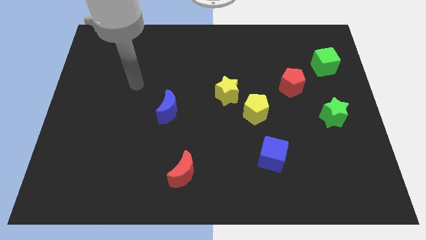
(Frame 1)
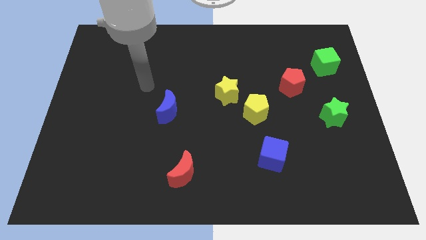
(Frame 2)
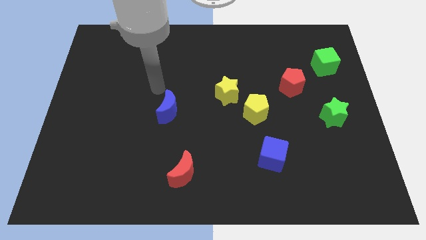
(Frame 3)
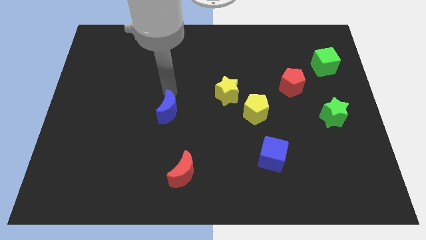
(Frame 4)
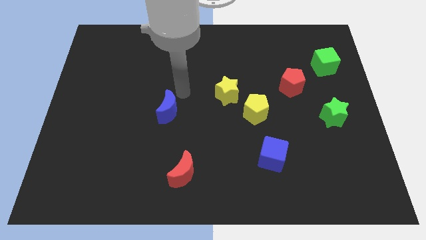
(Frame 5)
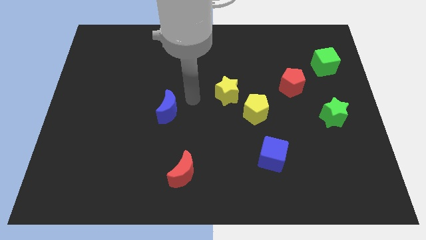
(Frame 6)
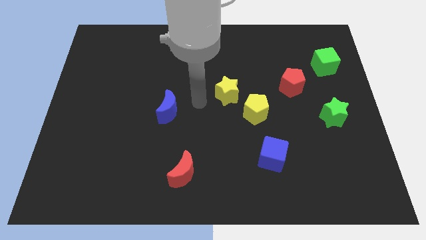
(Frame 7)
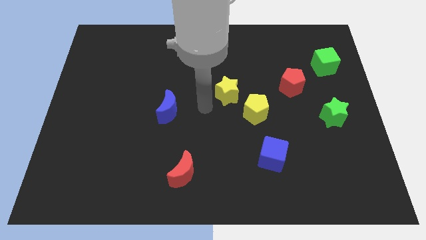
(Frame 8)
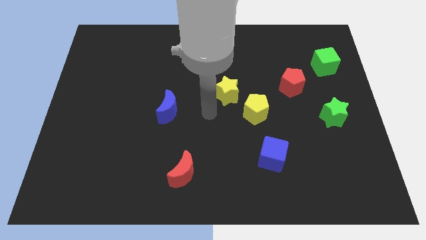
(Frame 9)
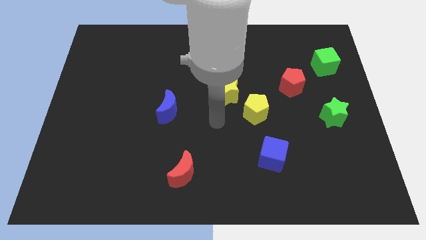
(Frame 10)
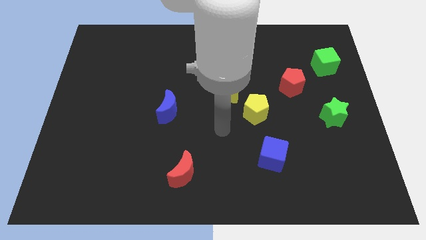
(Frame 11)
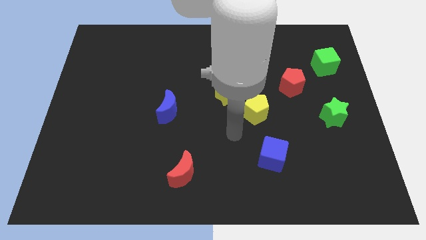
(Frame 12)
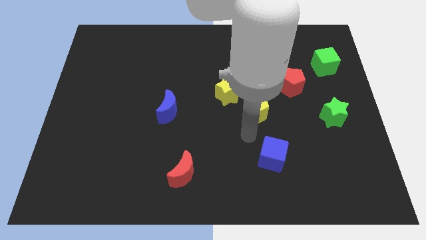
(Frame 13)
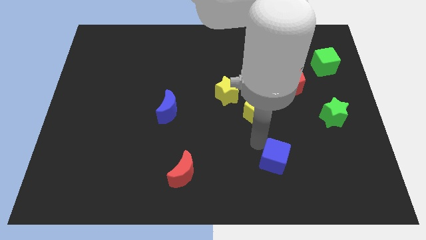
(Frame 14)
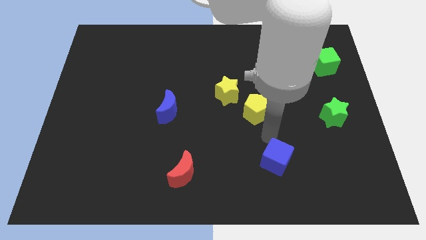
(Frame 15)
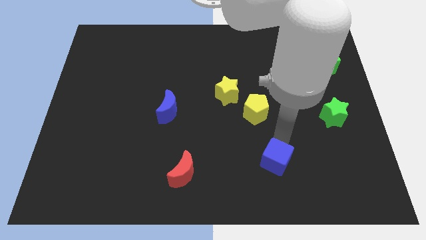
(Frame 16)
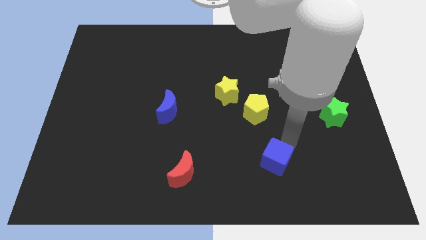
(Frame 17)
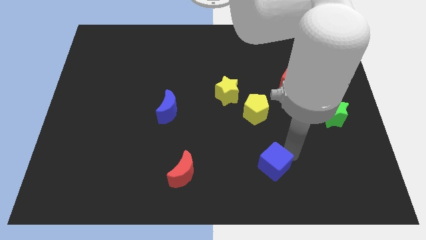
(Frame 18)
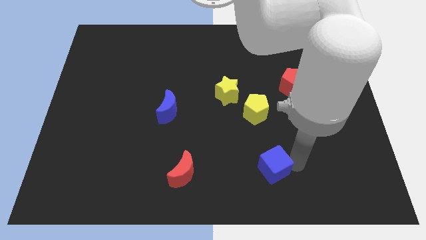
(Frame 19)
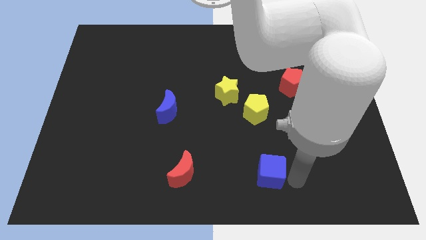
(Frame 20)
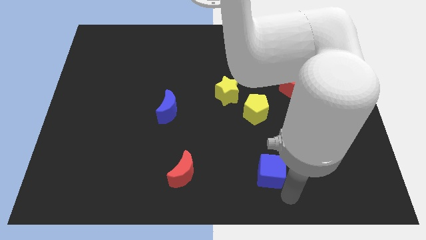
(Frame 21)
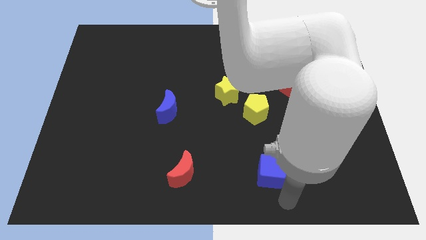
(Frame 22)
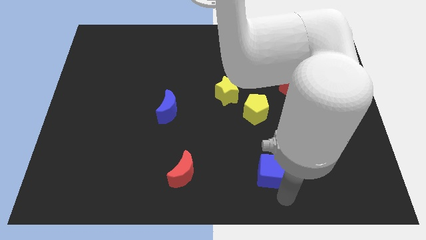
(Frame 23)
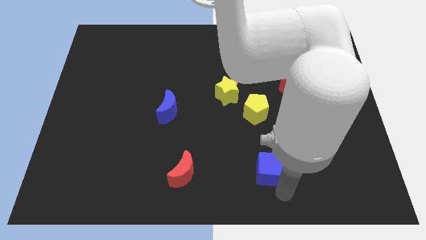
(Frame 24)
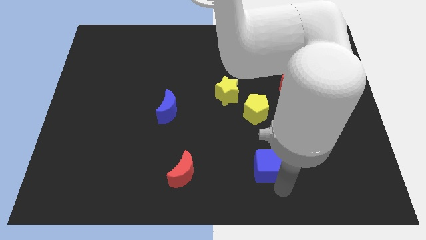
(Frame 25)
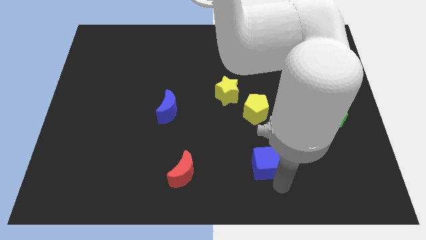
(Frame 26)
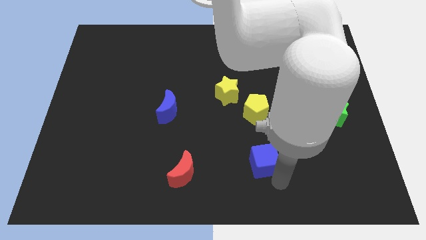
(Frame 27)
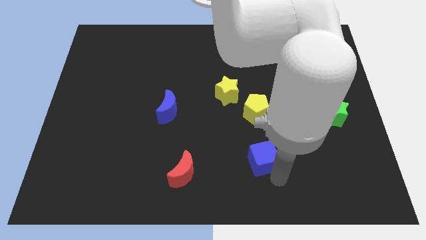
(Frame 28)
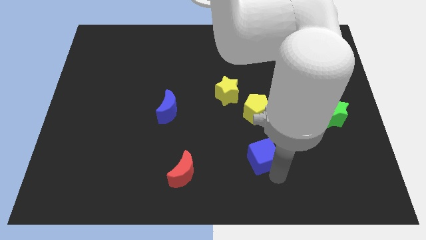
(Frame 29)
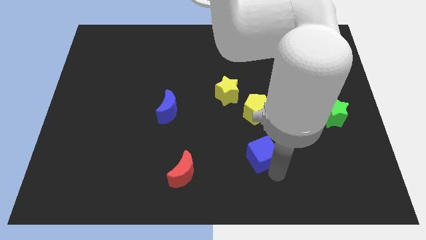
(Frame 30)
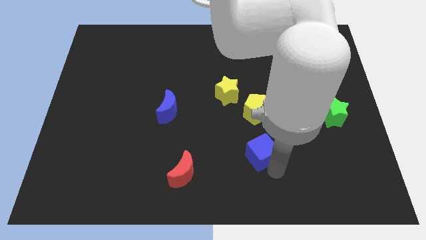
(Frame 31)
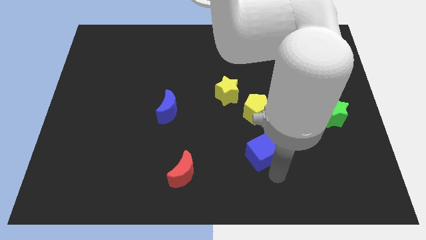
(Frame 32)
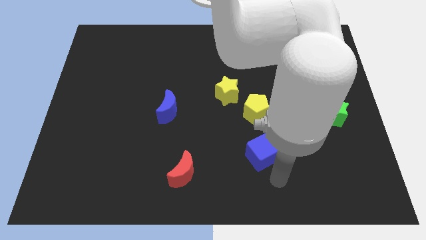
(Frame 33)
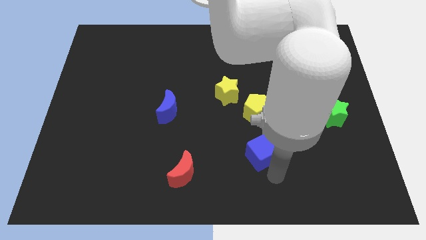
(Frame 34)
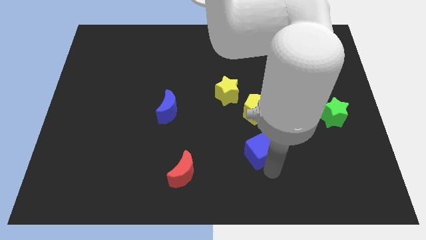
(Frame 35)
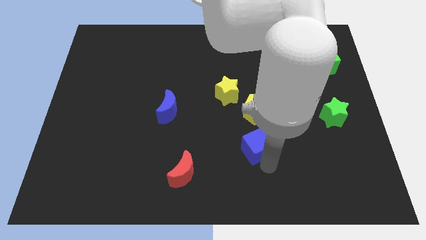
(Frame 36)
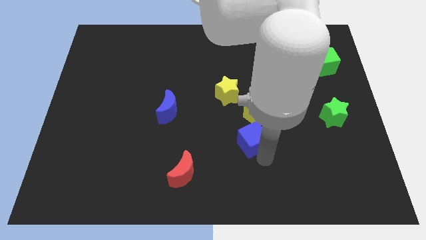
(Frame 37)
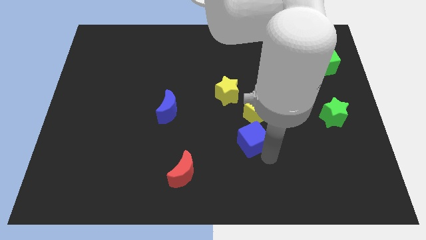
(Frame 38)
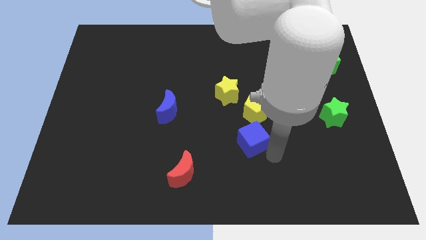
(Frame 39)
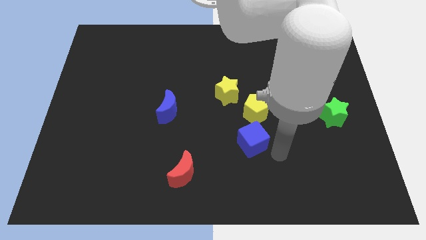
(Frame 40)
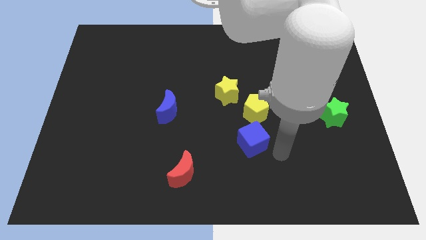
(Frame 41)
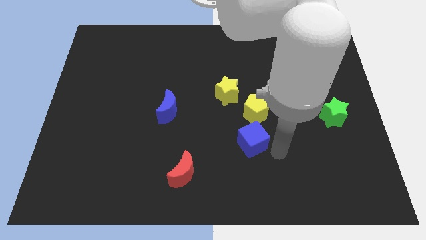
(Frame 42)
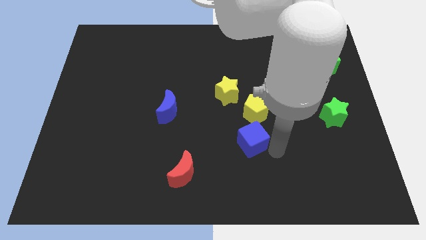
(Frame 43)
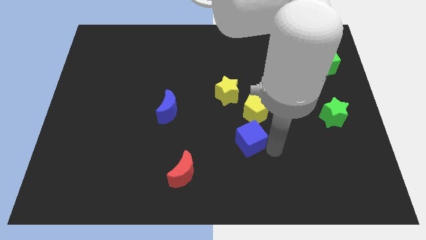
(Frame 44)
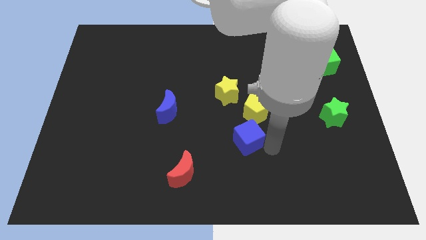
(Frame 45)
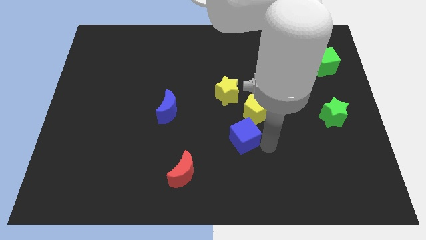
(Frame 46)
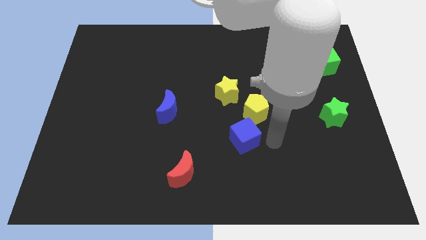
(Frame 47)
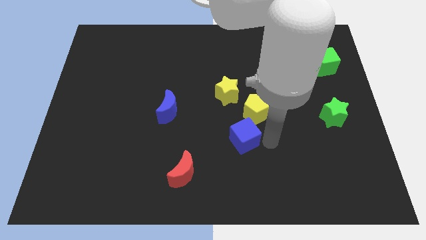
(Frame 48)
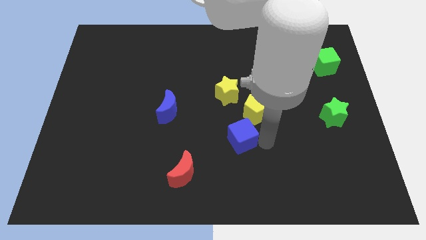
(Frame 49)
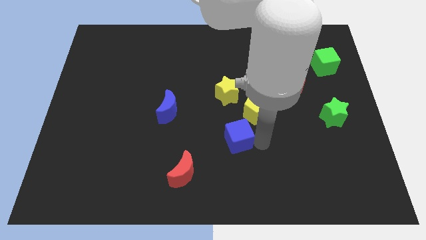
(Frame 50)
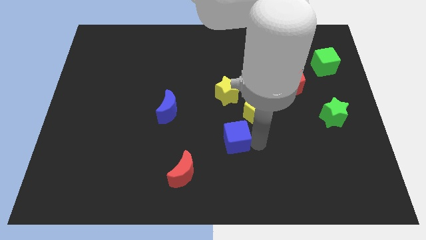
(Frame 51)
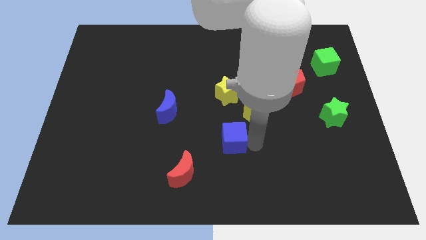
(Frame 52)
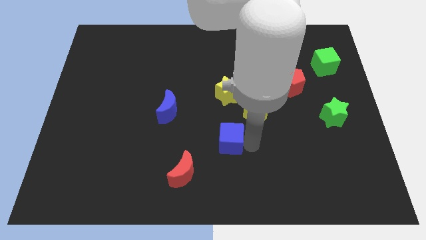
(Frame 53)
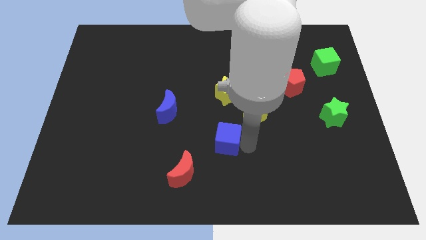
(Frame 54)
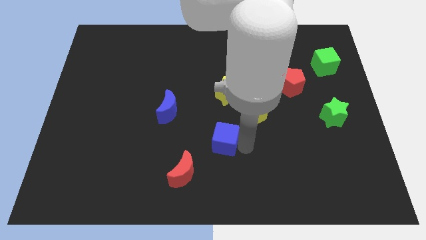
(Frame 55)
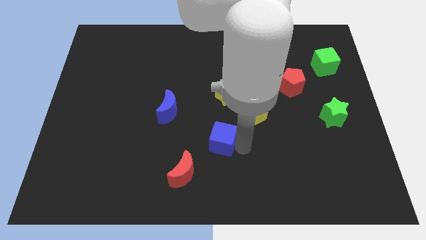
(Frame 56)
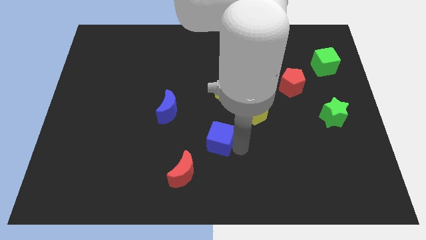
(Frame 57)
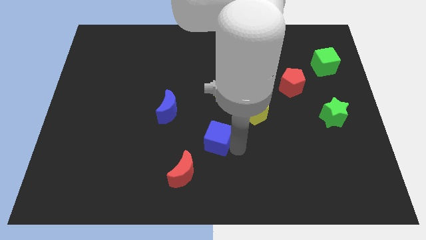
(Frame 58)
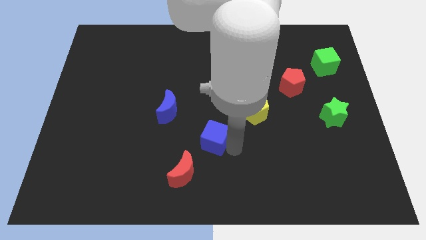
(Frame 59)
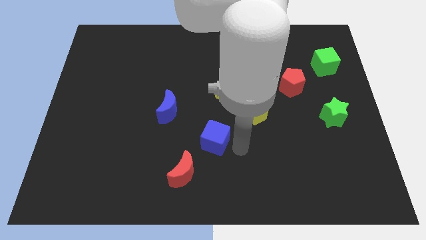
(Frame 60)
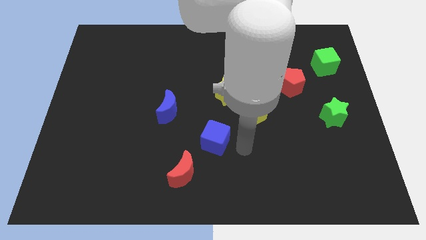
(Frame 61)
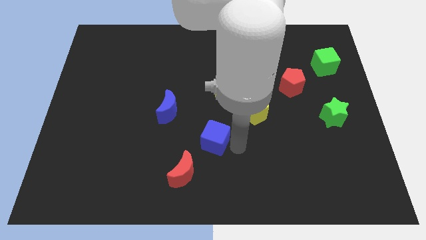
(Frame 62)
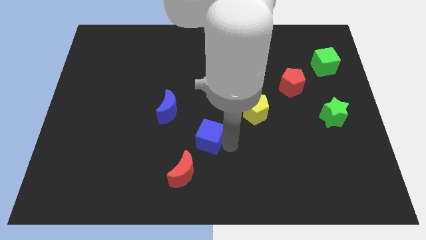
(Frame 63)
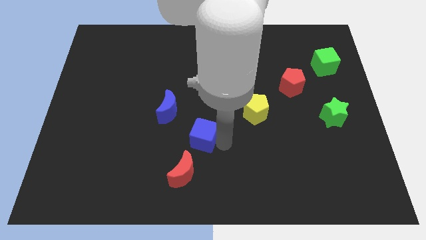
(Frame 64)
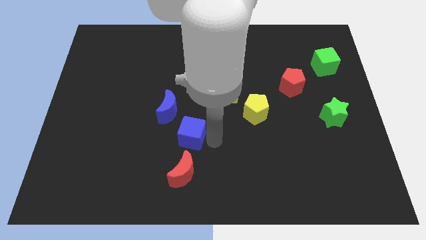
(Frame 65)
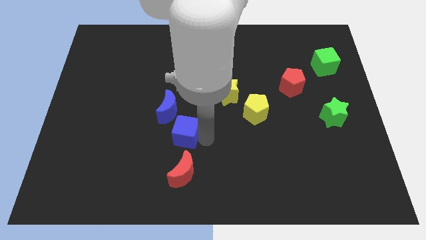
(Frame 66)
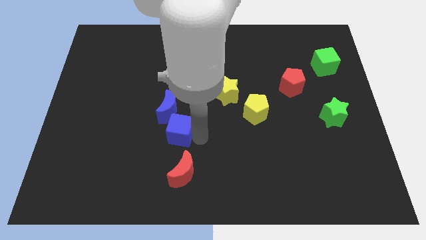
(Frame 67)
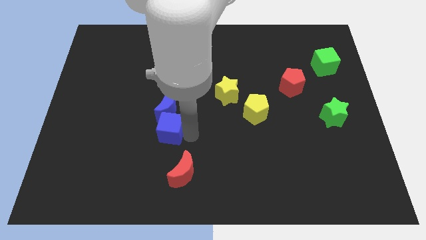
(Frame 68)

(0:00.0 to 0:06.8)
put the blue cube to the bottom left of the blue moon
